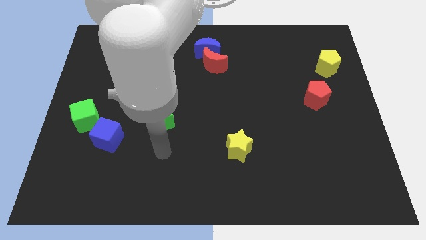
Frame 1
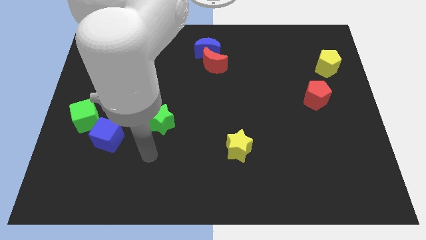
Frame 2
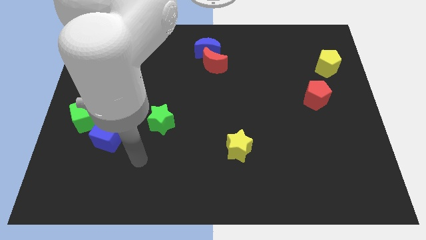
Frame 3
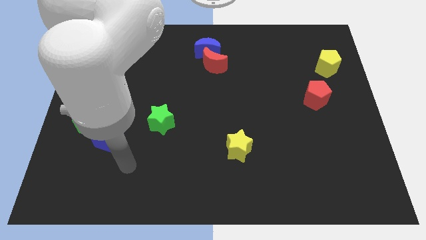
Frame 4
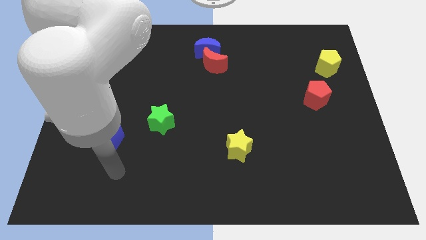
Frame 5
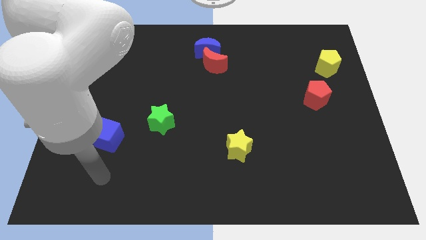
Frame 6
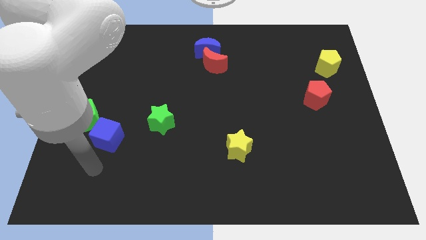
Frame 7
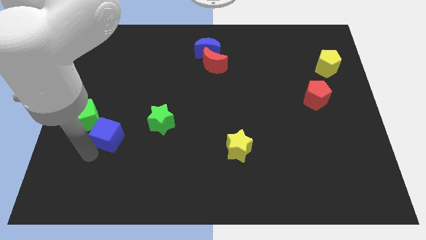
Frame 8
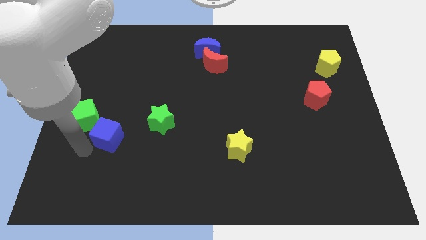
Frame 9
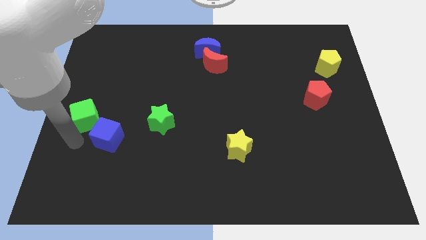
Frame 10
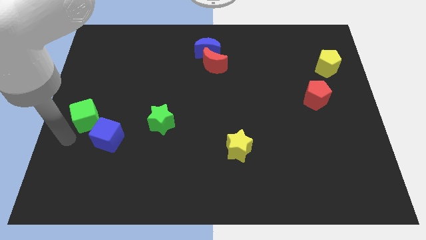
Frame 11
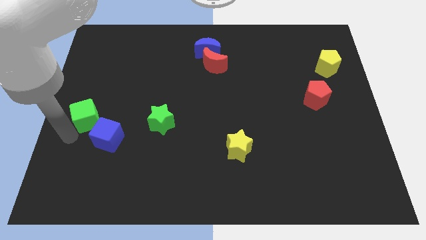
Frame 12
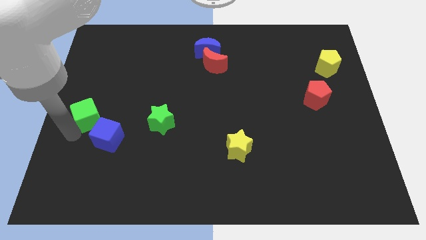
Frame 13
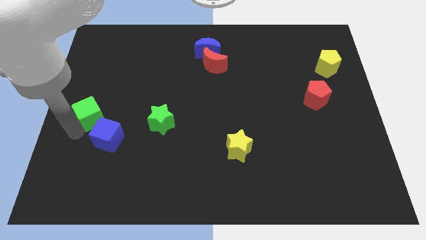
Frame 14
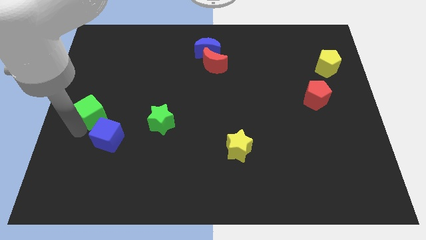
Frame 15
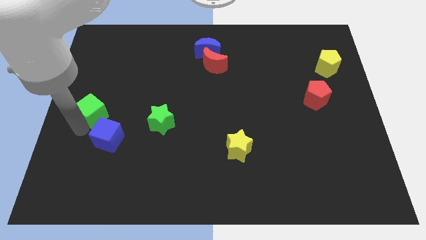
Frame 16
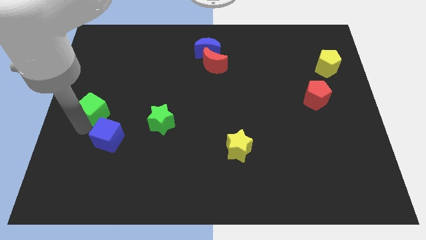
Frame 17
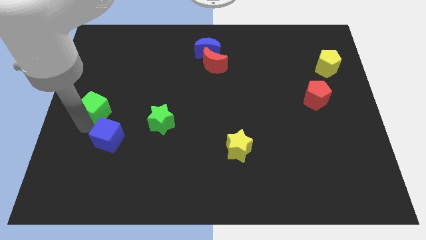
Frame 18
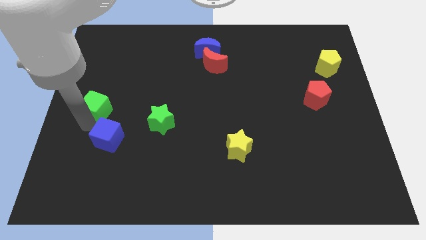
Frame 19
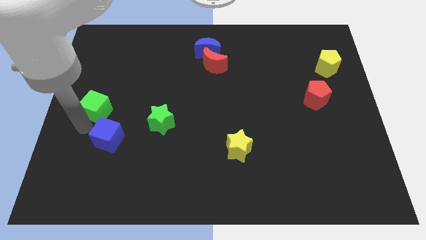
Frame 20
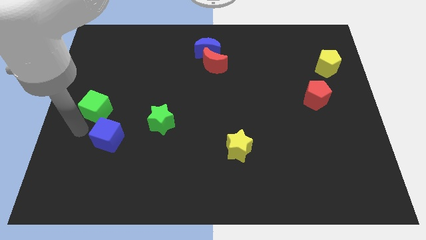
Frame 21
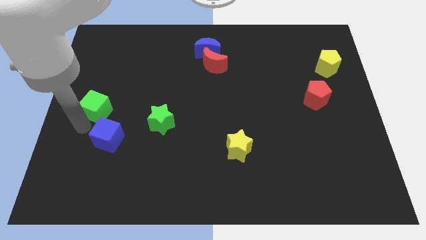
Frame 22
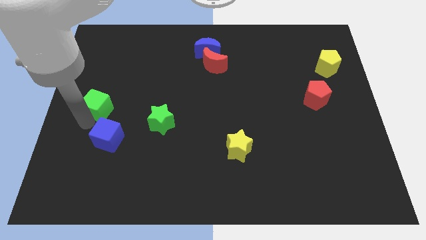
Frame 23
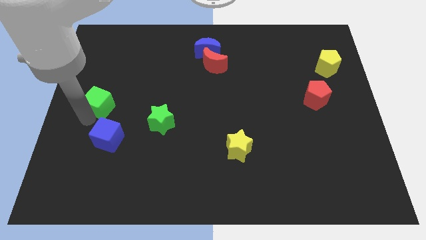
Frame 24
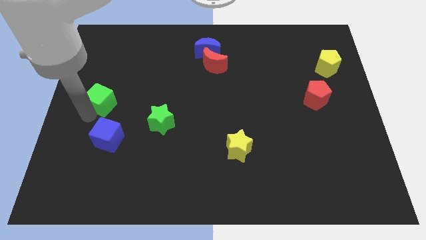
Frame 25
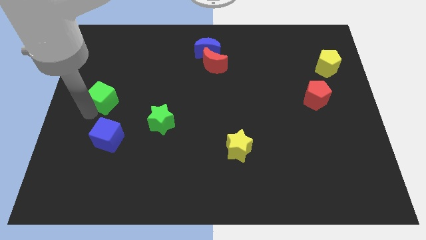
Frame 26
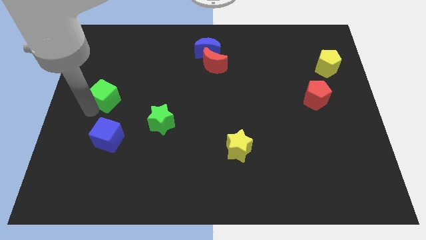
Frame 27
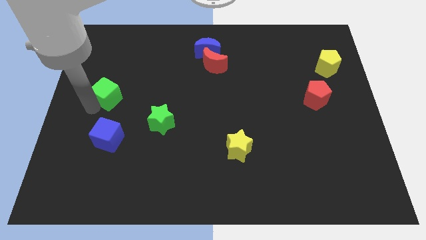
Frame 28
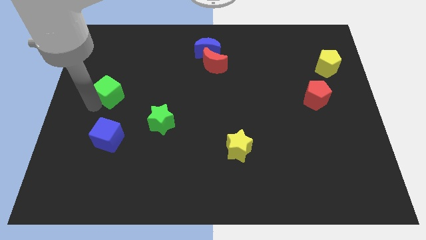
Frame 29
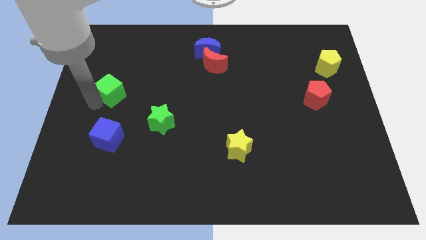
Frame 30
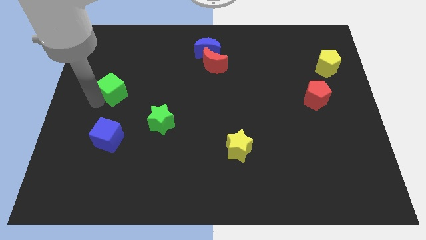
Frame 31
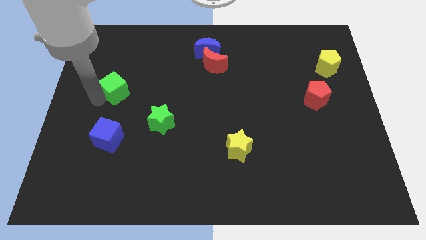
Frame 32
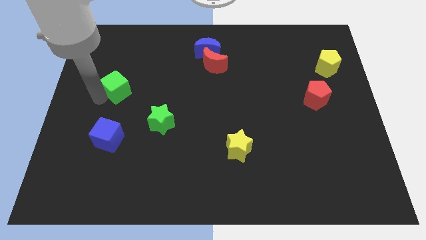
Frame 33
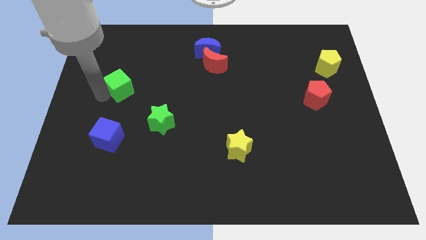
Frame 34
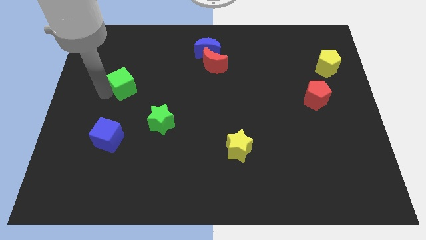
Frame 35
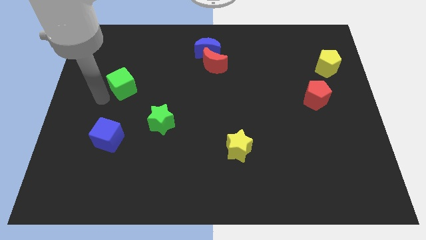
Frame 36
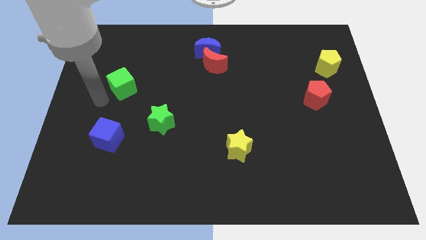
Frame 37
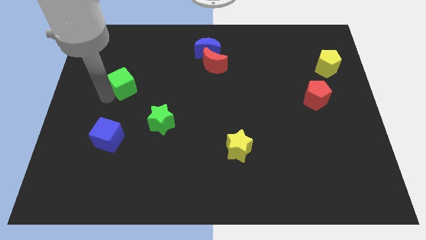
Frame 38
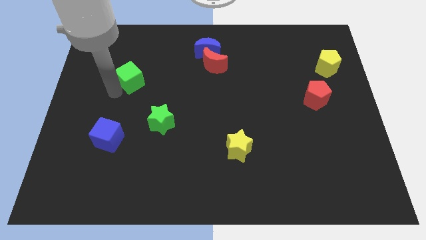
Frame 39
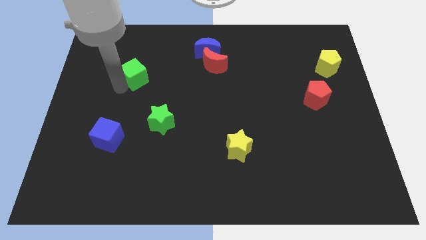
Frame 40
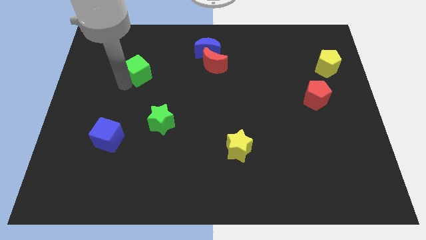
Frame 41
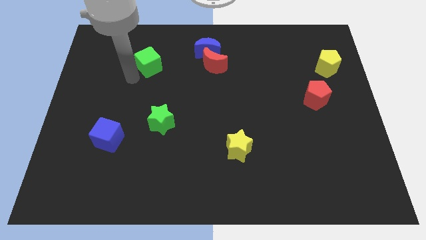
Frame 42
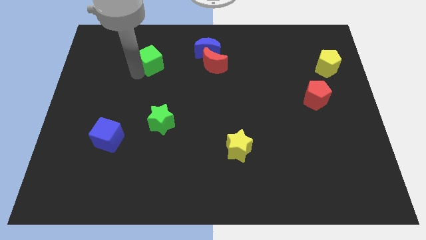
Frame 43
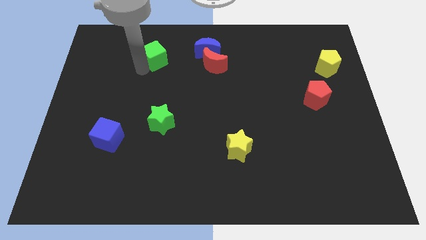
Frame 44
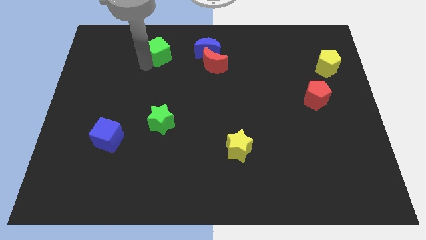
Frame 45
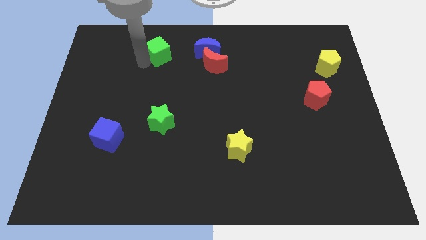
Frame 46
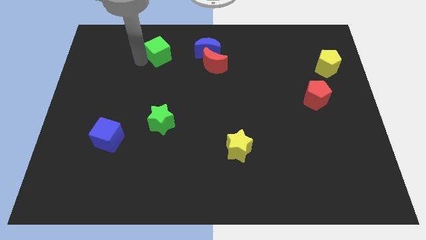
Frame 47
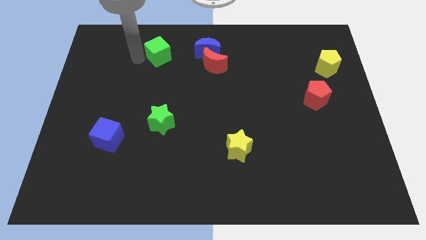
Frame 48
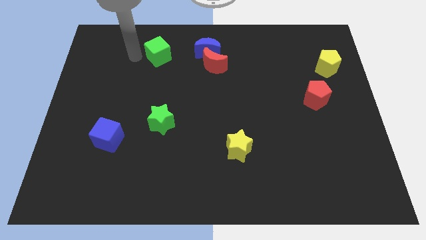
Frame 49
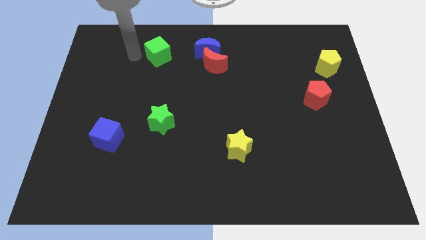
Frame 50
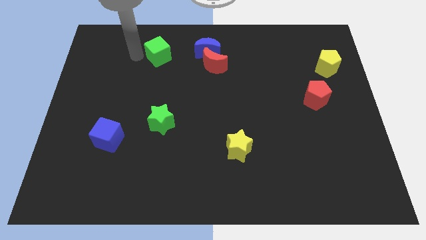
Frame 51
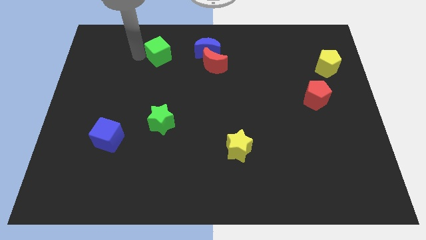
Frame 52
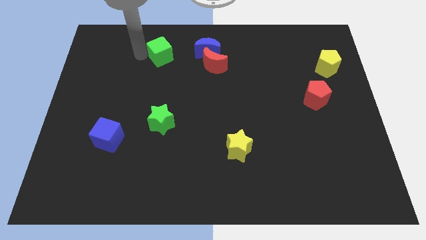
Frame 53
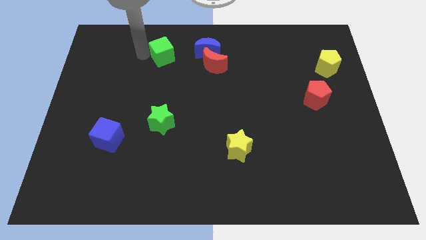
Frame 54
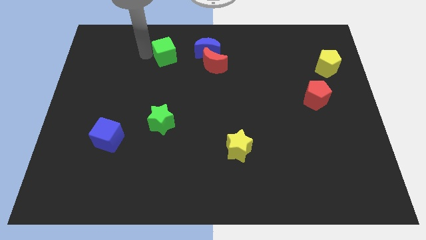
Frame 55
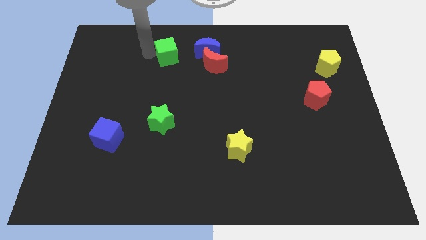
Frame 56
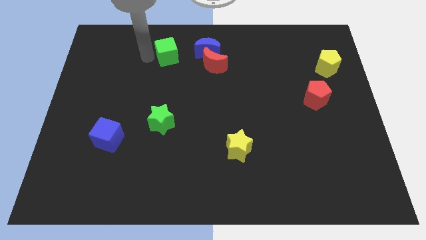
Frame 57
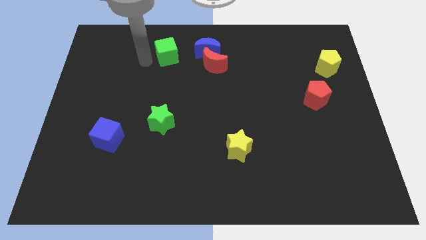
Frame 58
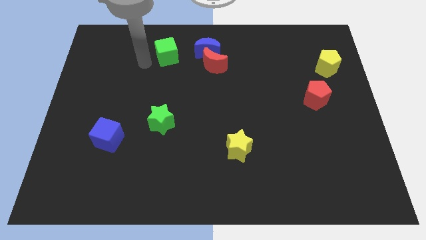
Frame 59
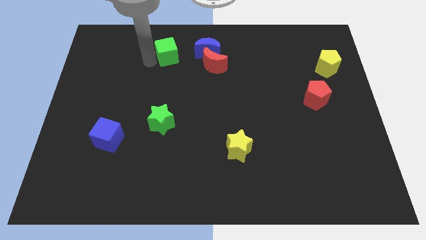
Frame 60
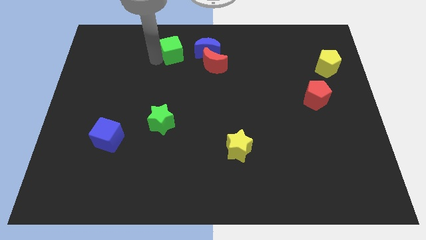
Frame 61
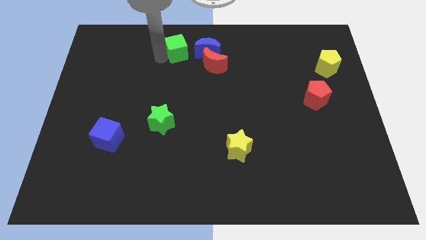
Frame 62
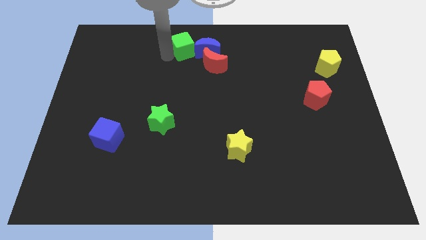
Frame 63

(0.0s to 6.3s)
push the green cube to the top
